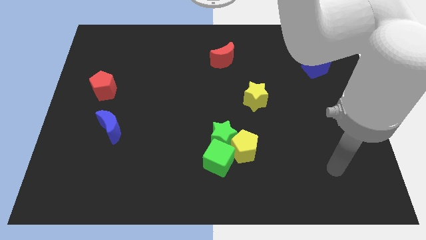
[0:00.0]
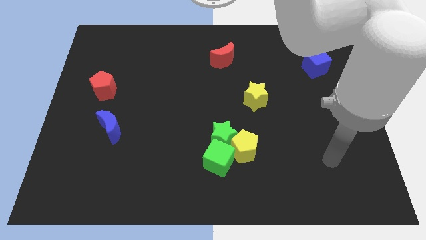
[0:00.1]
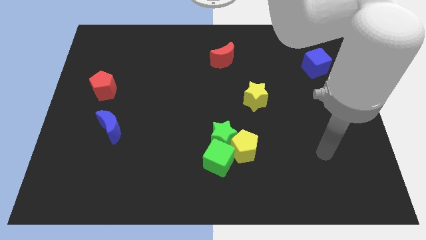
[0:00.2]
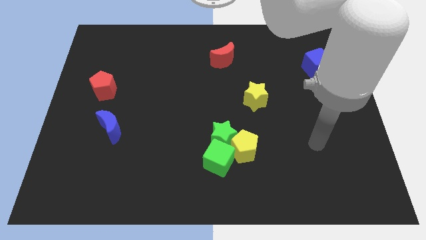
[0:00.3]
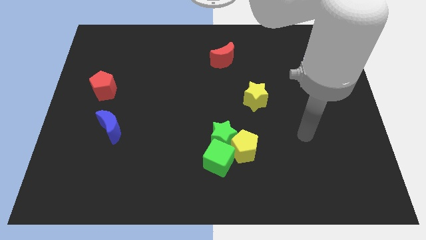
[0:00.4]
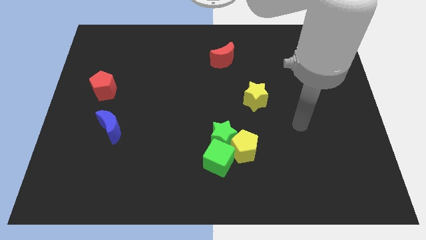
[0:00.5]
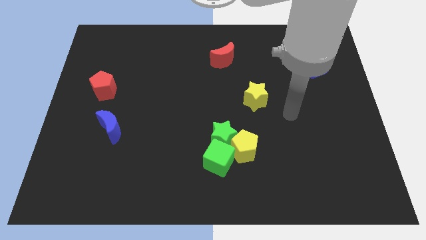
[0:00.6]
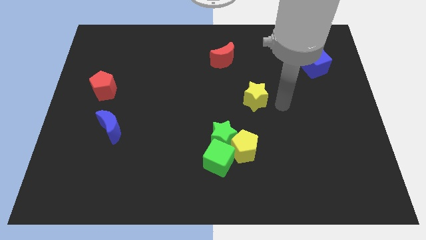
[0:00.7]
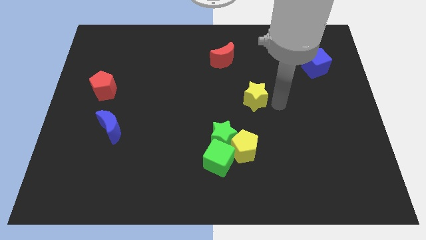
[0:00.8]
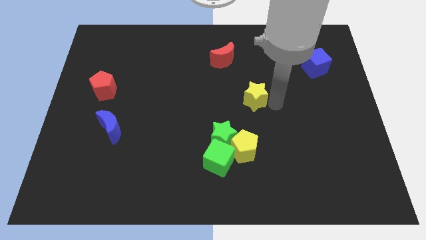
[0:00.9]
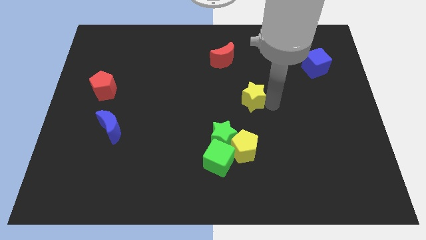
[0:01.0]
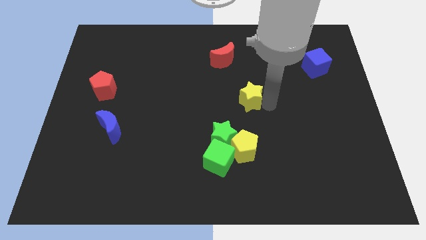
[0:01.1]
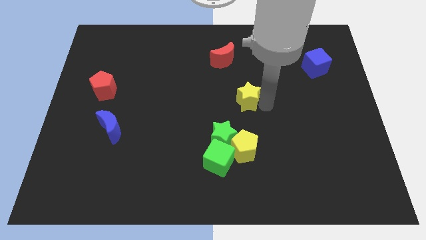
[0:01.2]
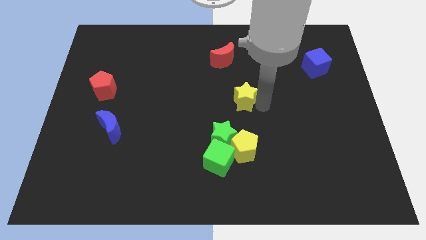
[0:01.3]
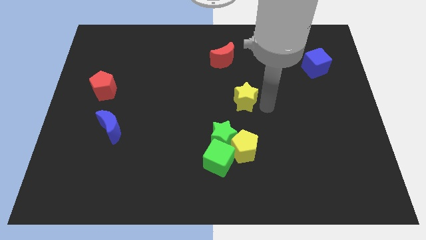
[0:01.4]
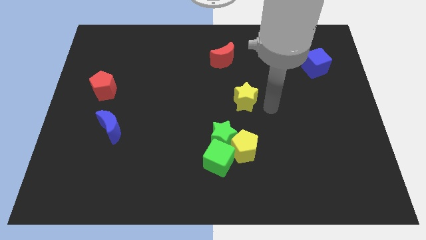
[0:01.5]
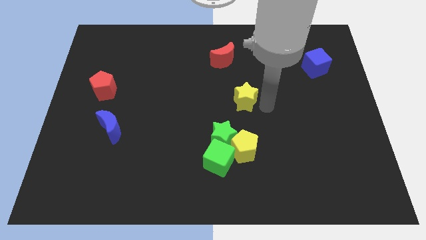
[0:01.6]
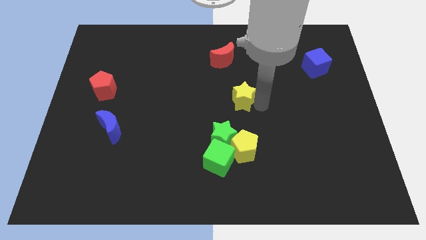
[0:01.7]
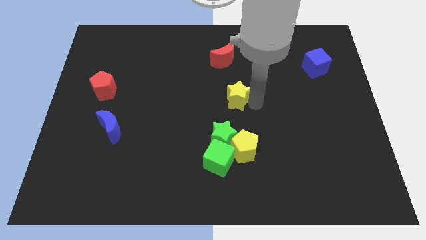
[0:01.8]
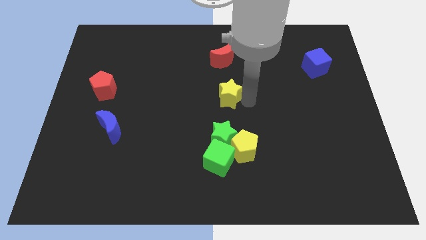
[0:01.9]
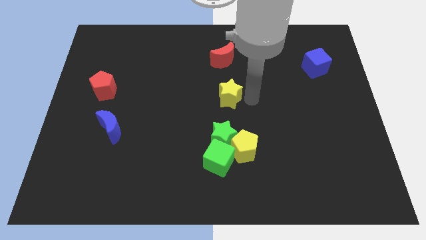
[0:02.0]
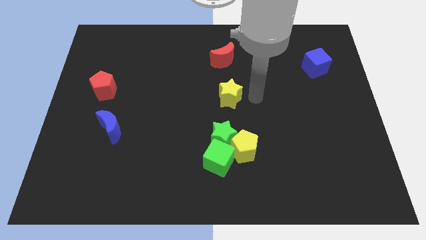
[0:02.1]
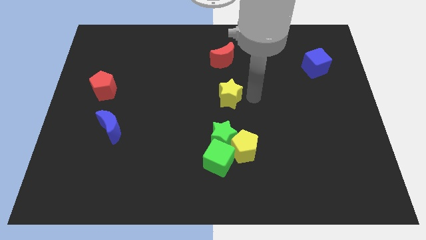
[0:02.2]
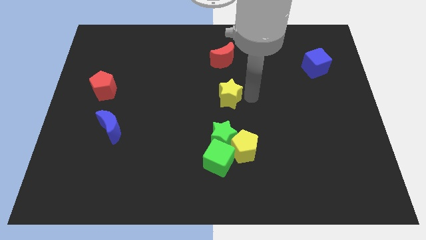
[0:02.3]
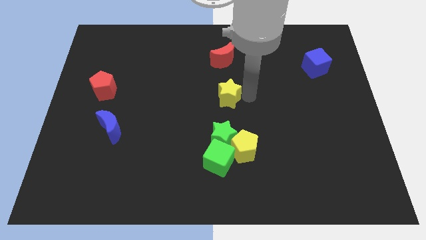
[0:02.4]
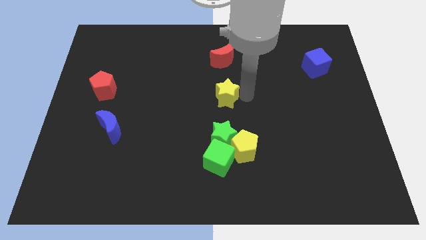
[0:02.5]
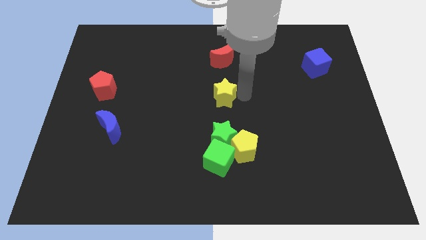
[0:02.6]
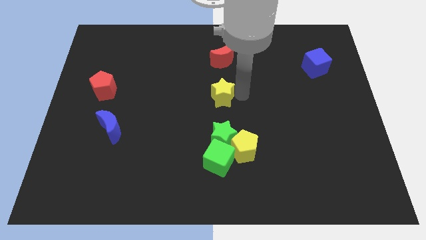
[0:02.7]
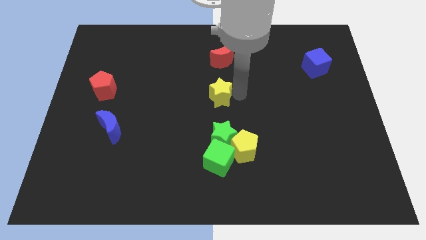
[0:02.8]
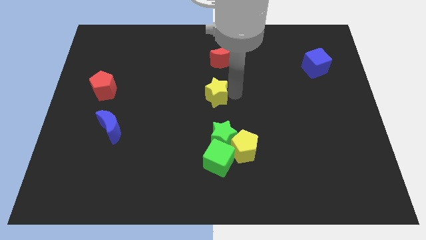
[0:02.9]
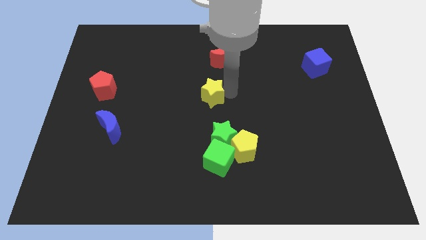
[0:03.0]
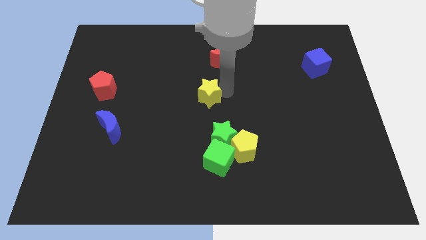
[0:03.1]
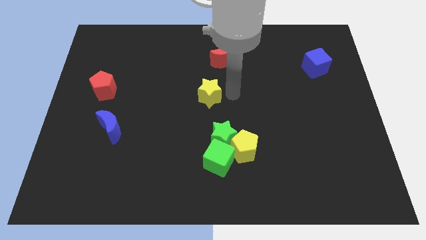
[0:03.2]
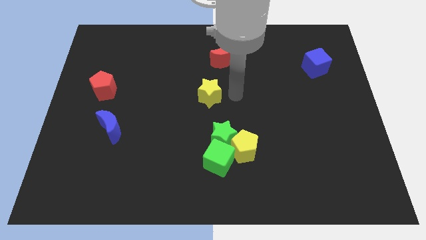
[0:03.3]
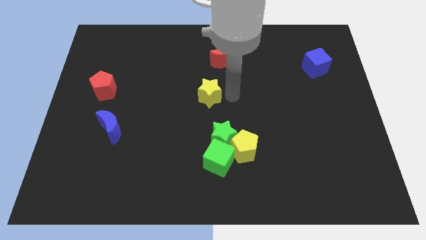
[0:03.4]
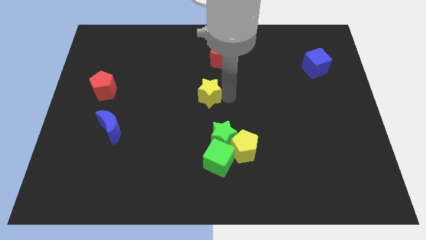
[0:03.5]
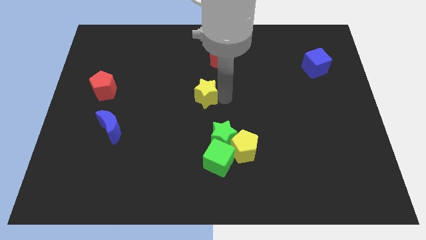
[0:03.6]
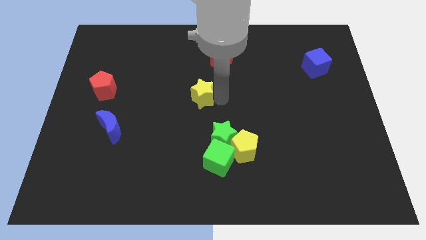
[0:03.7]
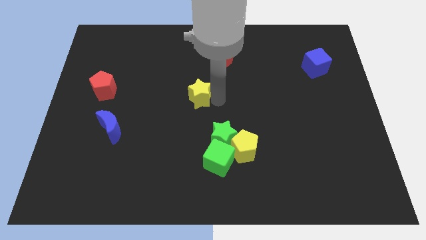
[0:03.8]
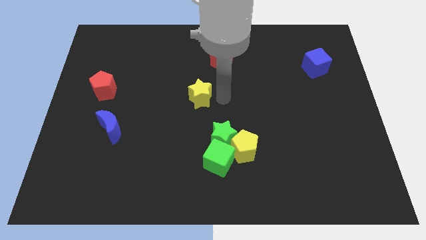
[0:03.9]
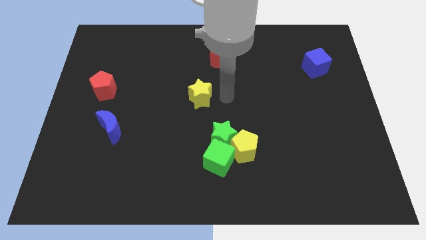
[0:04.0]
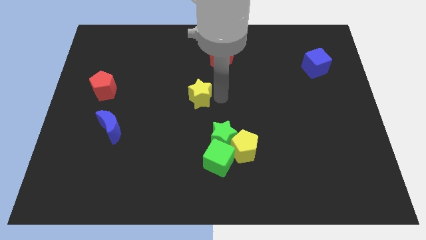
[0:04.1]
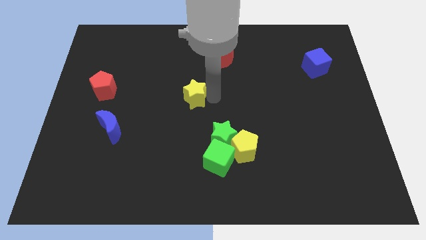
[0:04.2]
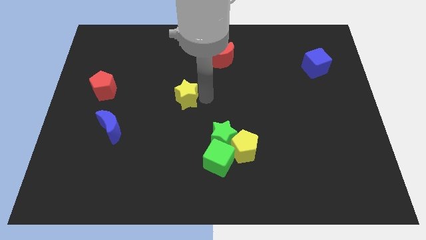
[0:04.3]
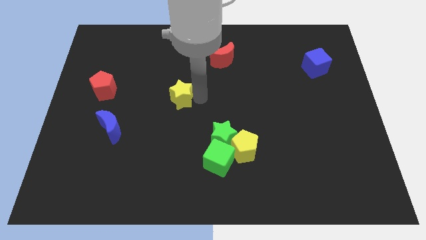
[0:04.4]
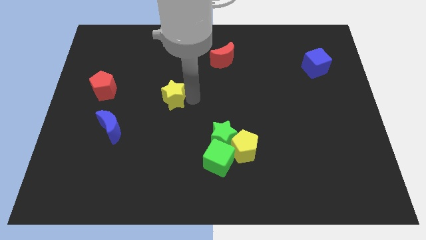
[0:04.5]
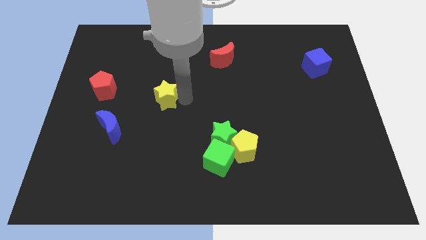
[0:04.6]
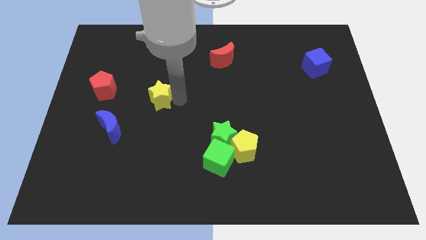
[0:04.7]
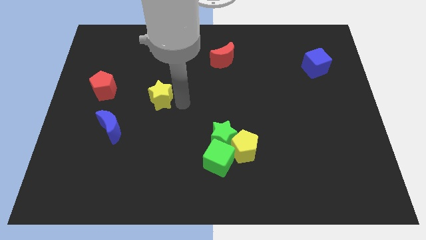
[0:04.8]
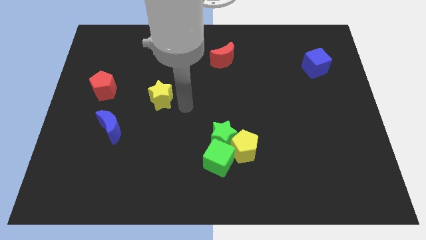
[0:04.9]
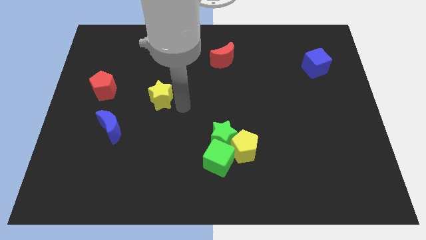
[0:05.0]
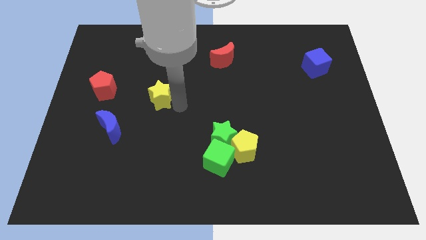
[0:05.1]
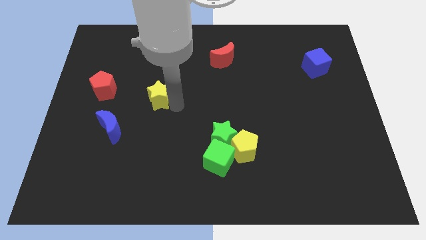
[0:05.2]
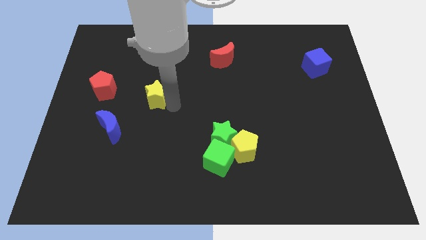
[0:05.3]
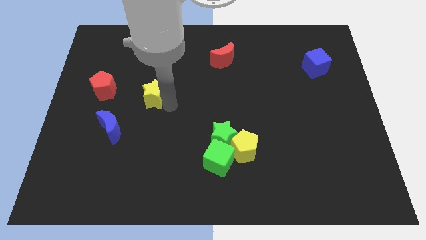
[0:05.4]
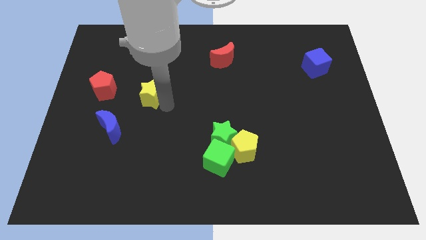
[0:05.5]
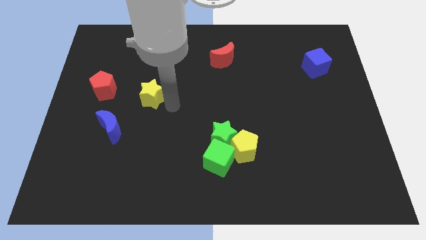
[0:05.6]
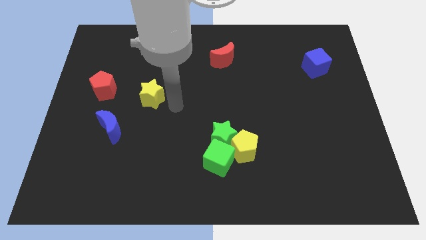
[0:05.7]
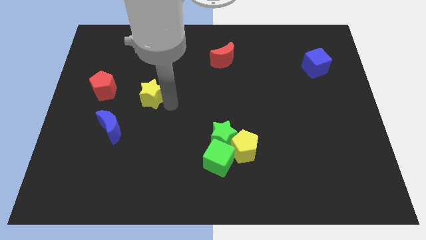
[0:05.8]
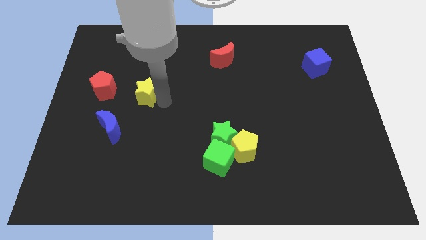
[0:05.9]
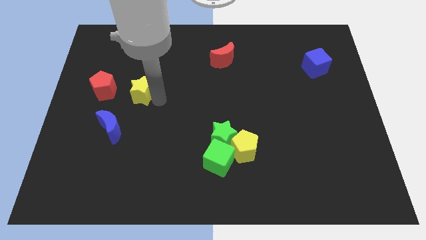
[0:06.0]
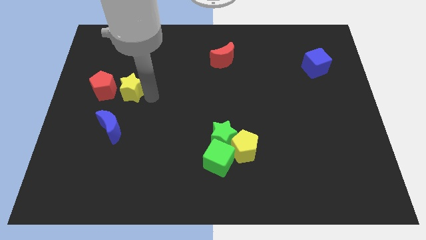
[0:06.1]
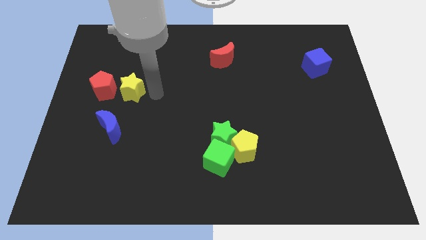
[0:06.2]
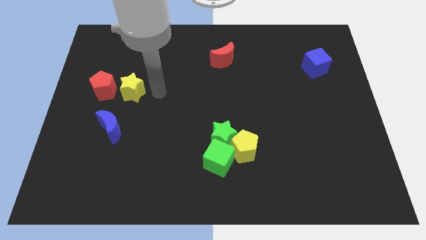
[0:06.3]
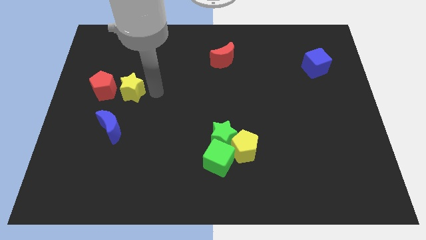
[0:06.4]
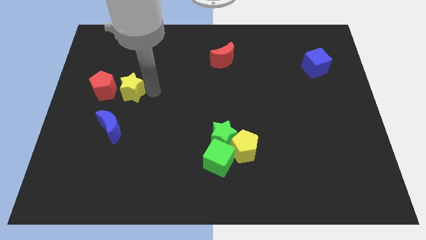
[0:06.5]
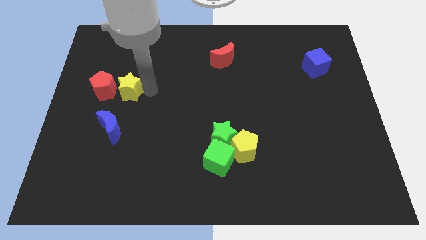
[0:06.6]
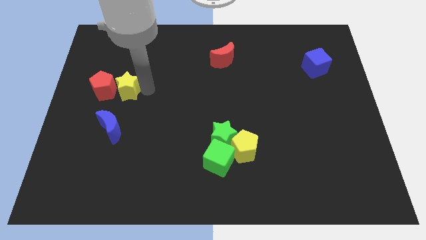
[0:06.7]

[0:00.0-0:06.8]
put the yellow star towards the red pentagon

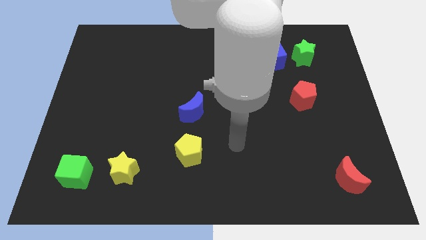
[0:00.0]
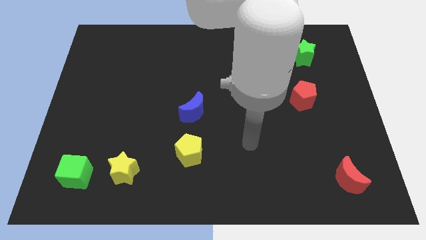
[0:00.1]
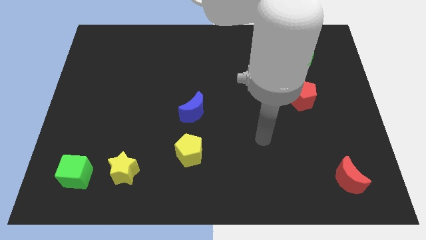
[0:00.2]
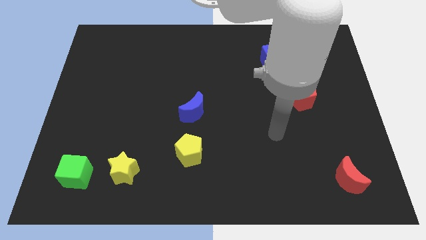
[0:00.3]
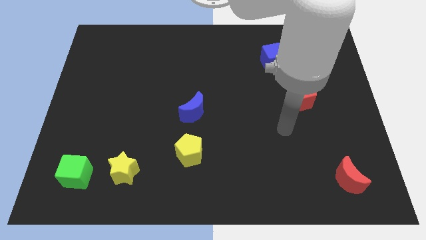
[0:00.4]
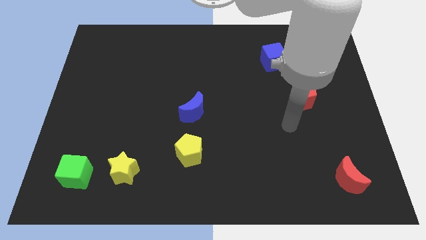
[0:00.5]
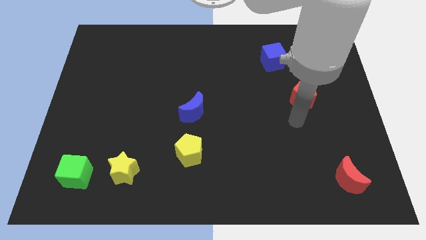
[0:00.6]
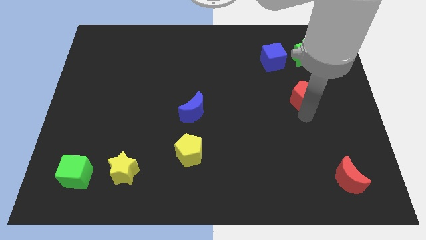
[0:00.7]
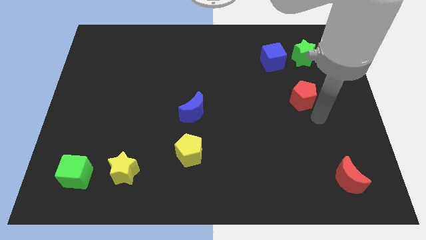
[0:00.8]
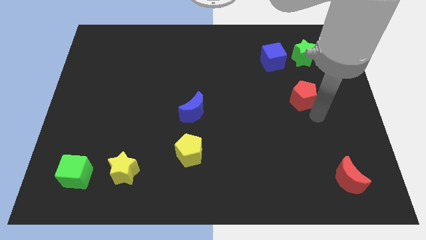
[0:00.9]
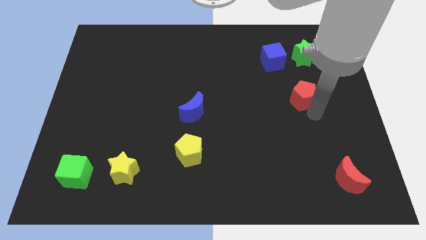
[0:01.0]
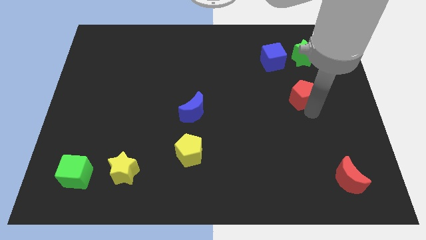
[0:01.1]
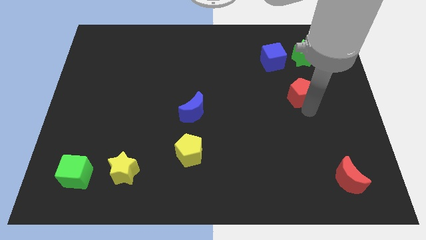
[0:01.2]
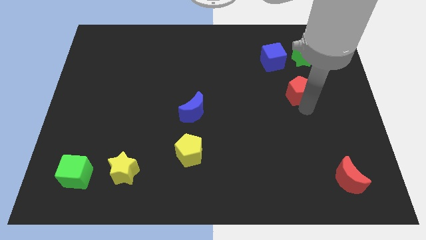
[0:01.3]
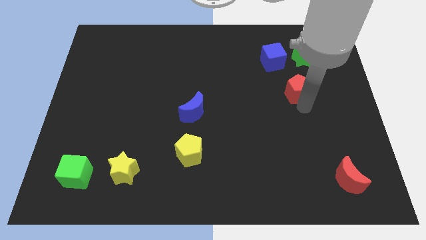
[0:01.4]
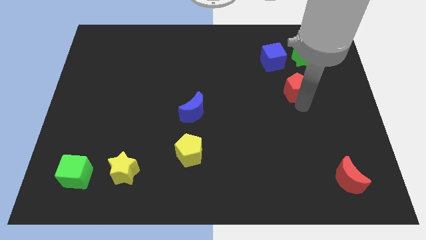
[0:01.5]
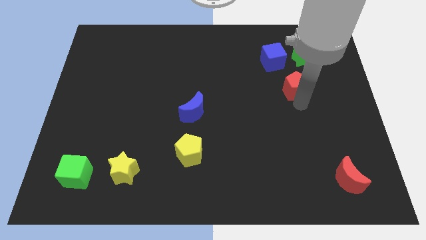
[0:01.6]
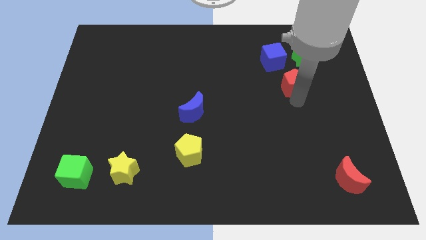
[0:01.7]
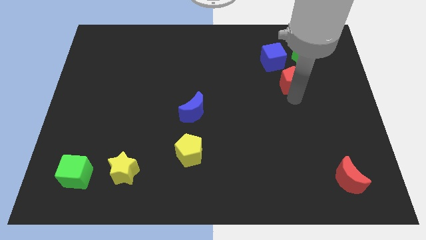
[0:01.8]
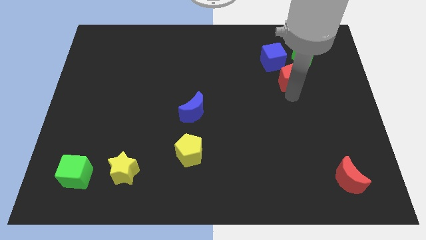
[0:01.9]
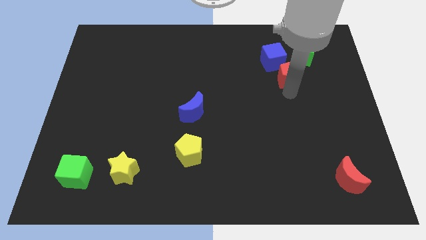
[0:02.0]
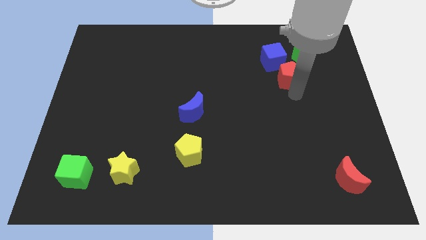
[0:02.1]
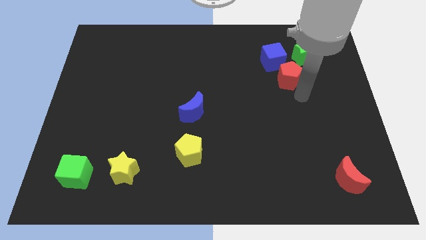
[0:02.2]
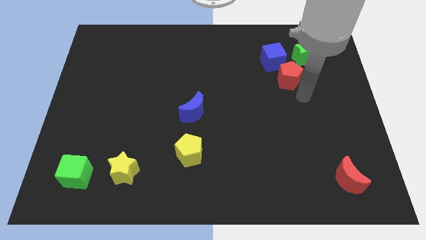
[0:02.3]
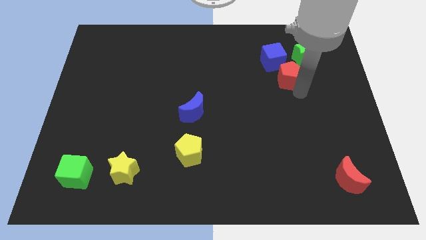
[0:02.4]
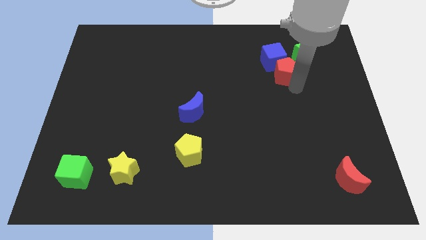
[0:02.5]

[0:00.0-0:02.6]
put the red pentagon close to the blue cube
